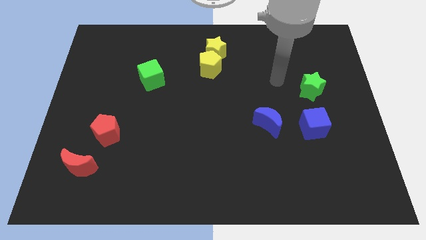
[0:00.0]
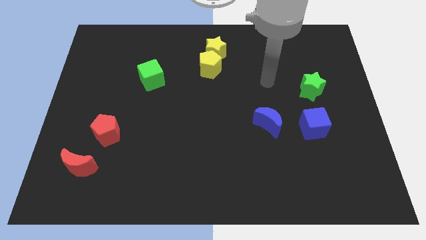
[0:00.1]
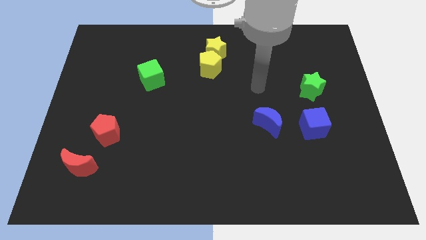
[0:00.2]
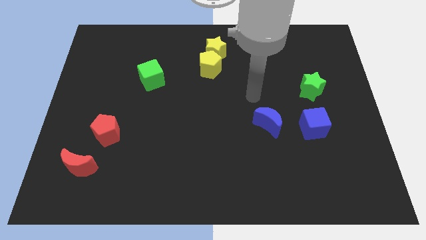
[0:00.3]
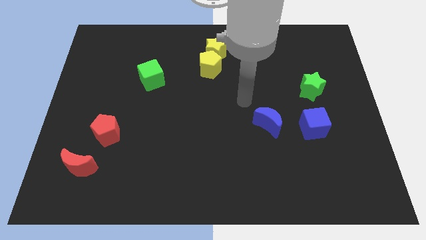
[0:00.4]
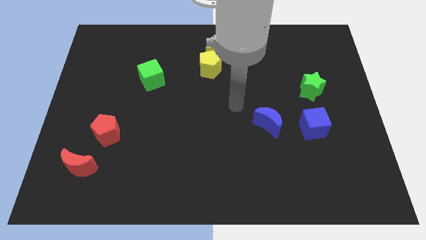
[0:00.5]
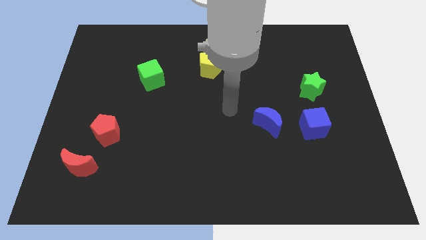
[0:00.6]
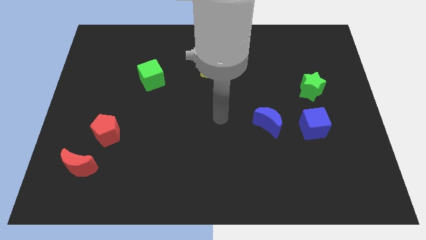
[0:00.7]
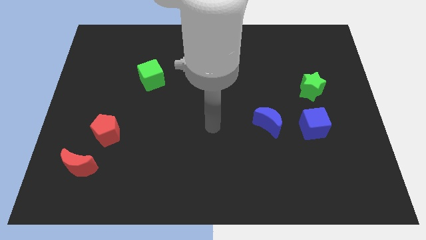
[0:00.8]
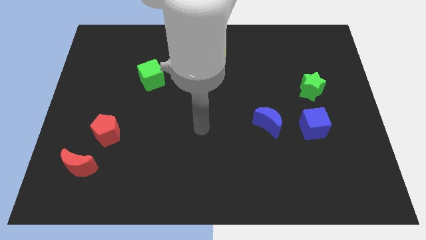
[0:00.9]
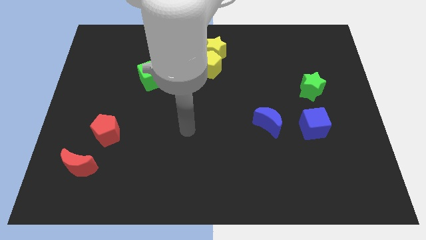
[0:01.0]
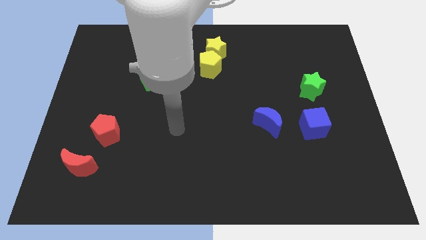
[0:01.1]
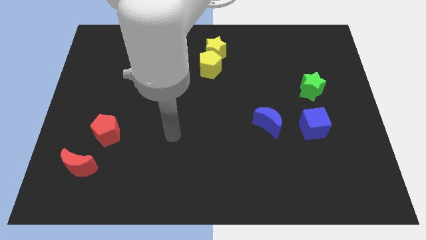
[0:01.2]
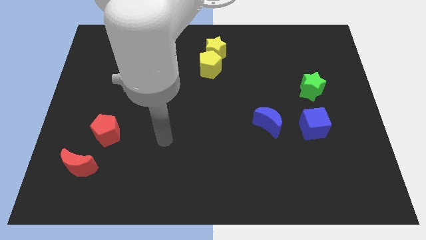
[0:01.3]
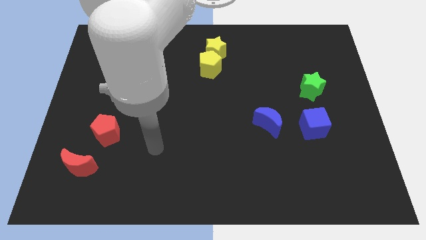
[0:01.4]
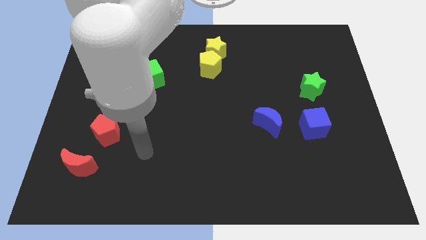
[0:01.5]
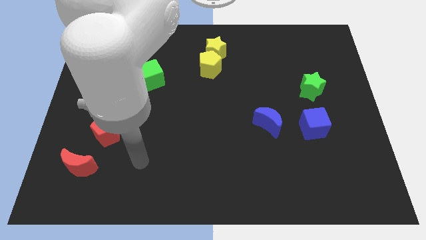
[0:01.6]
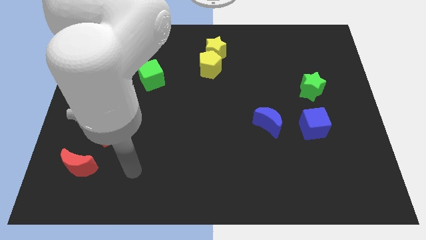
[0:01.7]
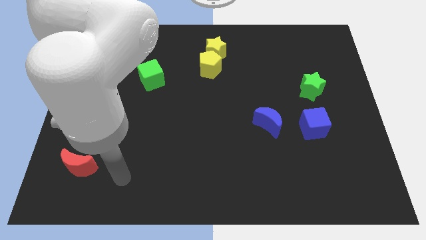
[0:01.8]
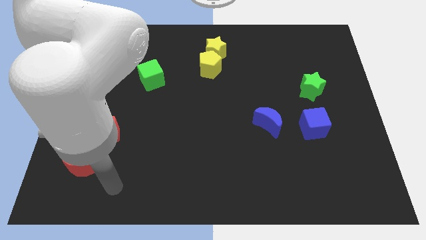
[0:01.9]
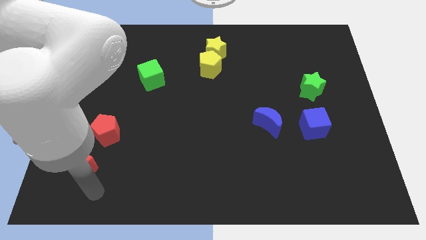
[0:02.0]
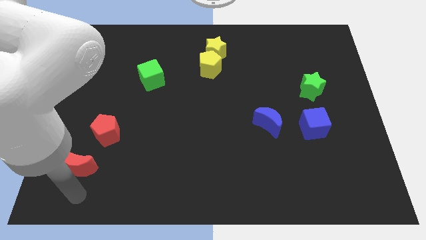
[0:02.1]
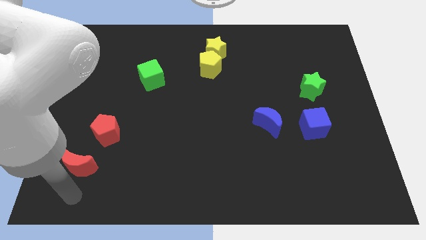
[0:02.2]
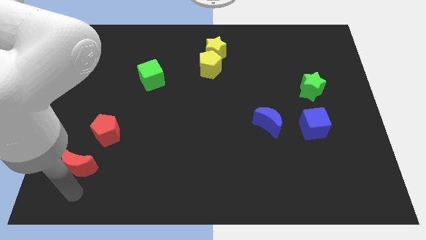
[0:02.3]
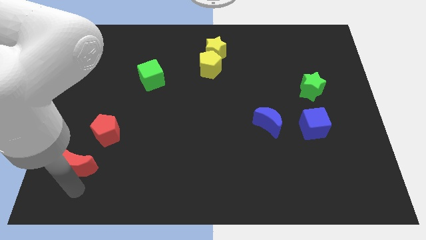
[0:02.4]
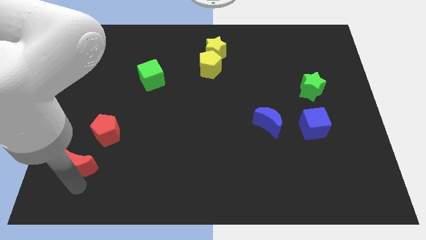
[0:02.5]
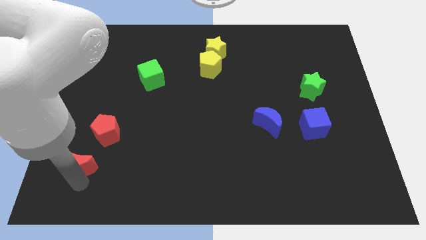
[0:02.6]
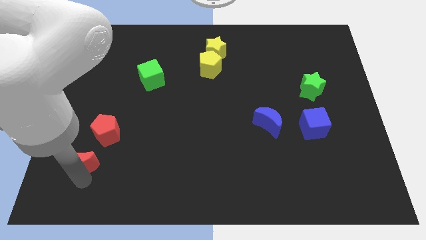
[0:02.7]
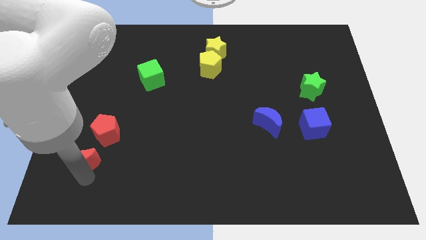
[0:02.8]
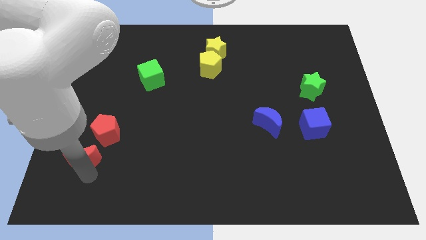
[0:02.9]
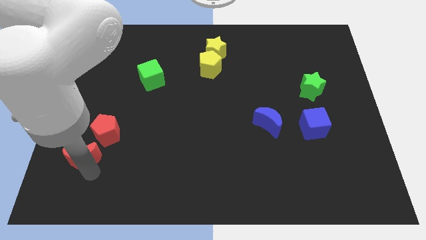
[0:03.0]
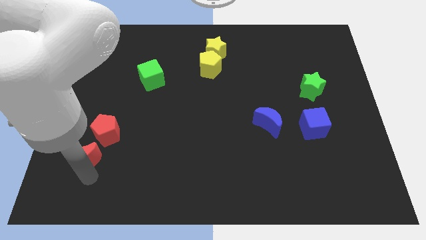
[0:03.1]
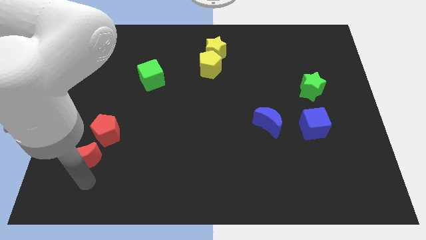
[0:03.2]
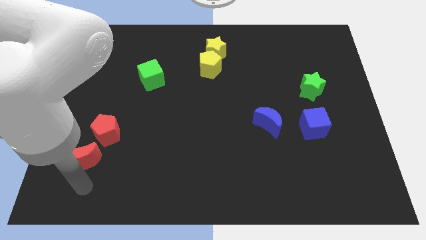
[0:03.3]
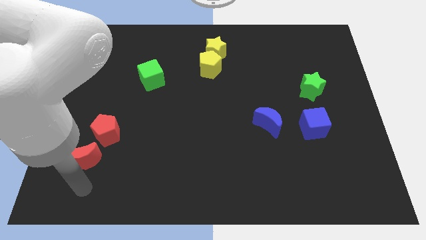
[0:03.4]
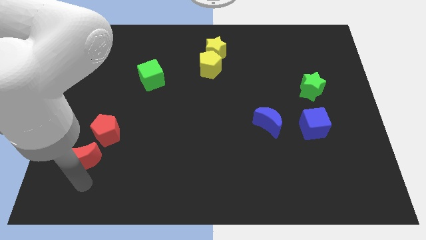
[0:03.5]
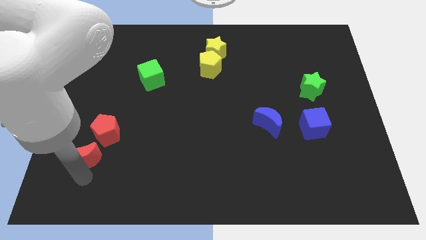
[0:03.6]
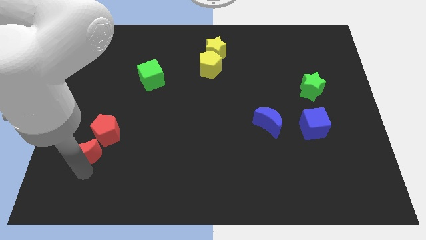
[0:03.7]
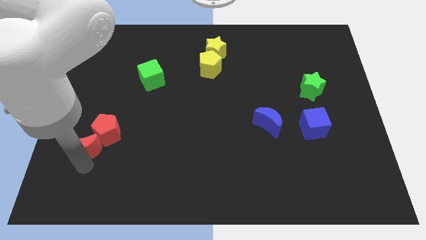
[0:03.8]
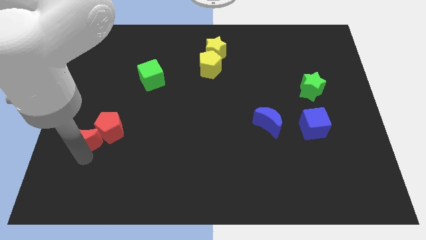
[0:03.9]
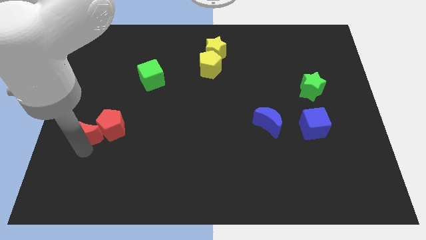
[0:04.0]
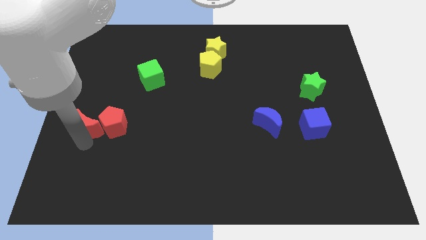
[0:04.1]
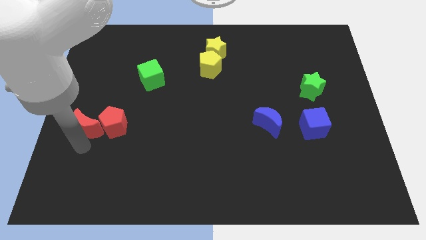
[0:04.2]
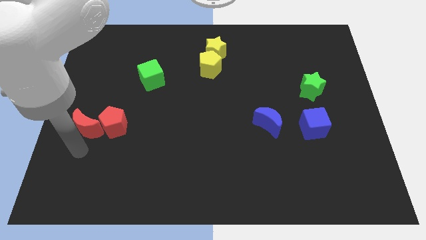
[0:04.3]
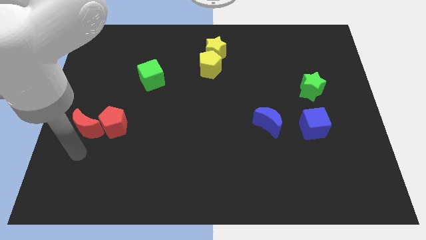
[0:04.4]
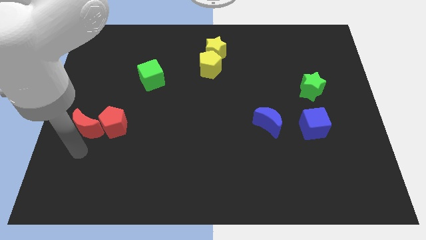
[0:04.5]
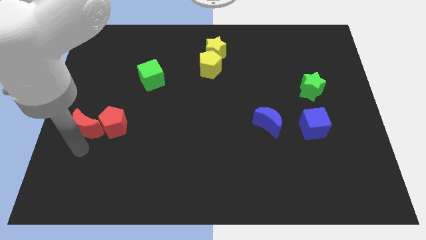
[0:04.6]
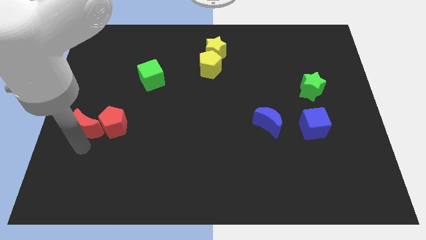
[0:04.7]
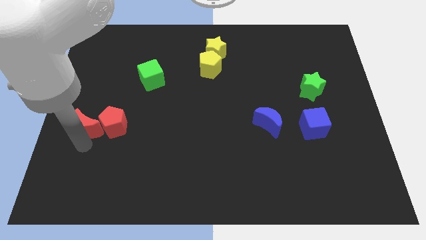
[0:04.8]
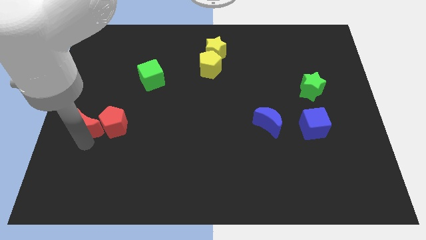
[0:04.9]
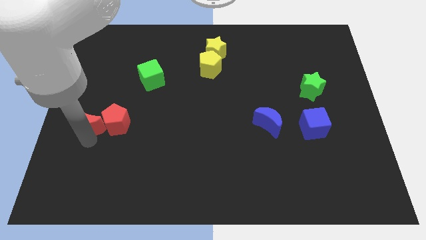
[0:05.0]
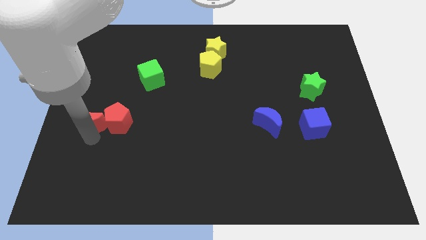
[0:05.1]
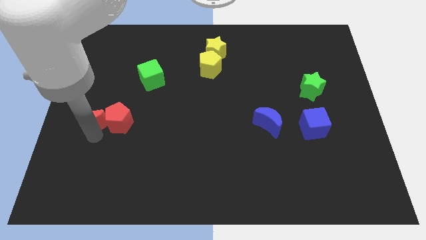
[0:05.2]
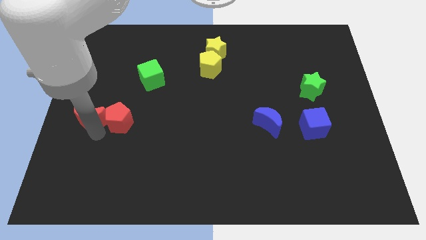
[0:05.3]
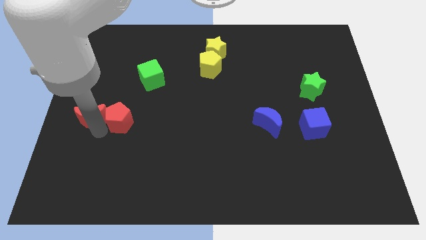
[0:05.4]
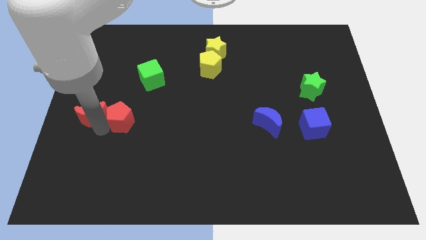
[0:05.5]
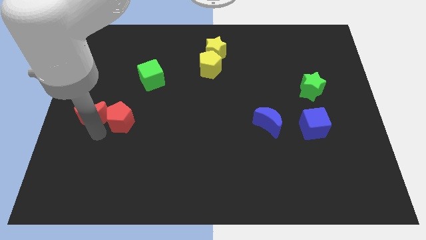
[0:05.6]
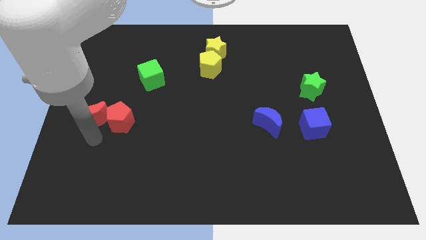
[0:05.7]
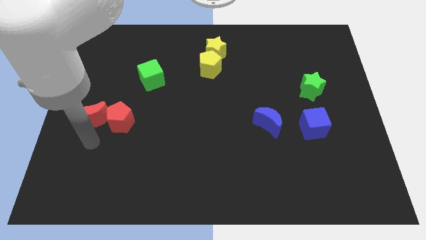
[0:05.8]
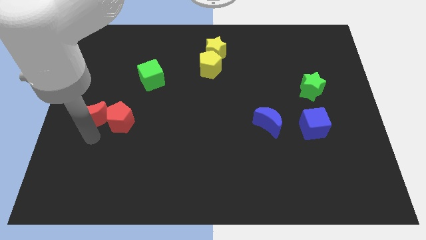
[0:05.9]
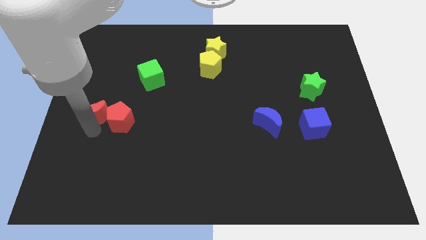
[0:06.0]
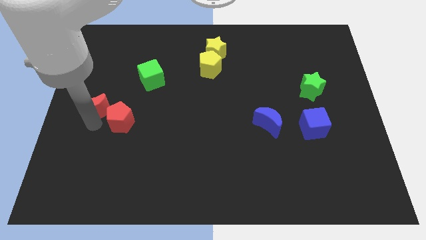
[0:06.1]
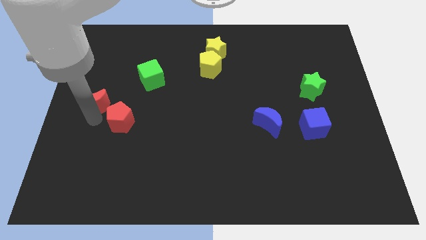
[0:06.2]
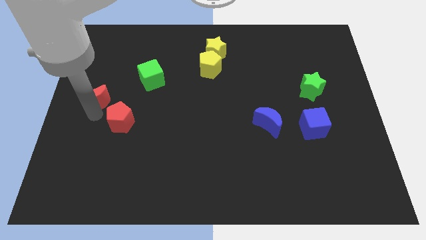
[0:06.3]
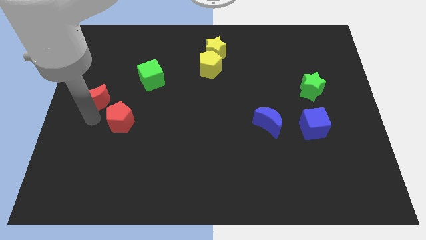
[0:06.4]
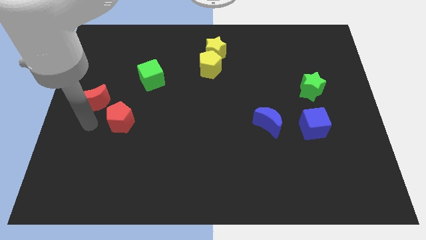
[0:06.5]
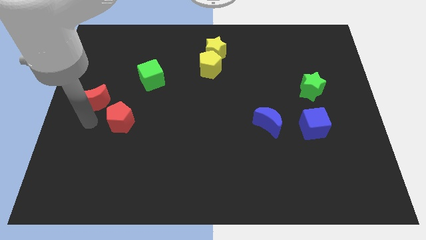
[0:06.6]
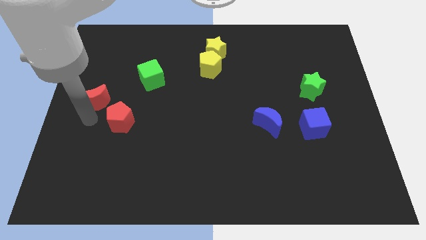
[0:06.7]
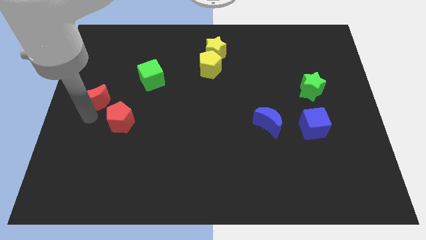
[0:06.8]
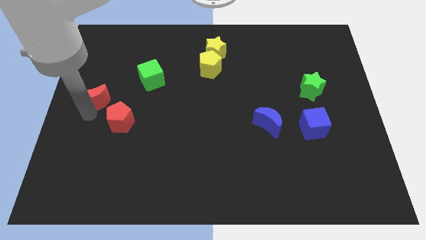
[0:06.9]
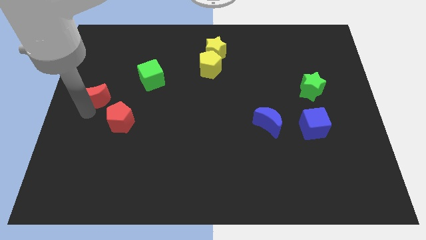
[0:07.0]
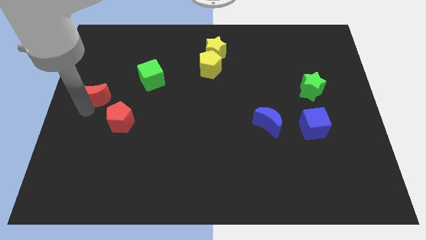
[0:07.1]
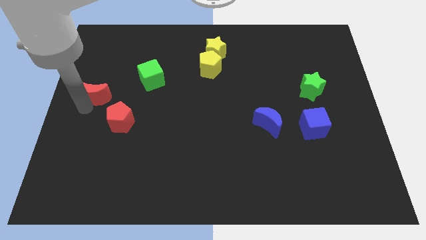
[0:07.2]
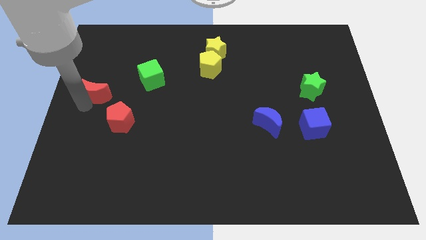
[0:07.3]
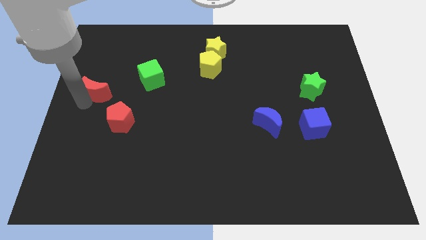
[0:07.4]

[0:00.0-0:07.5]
move the red moon up

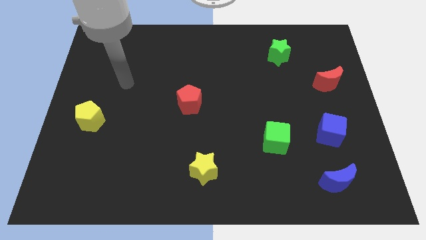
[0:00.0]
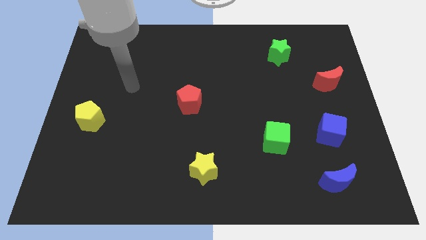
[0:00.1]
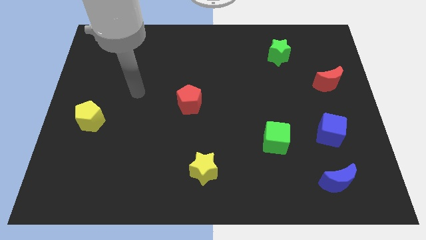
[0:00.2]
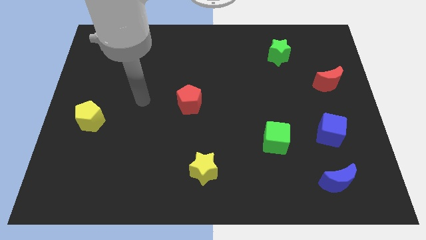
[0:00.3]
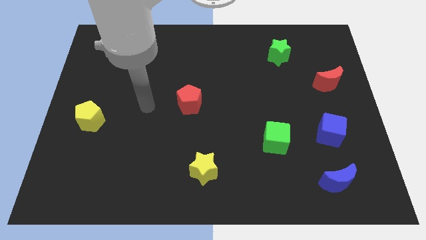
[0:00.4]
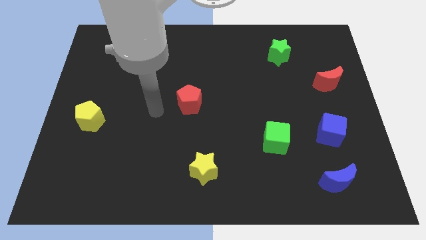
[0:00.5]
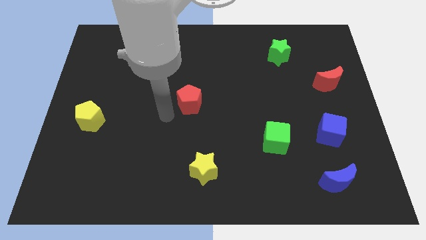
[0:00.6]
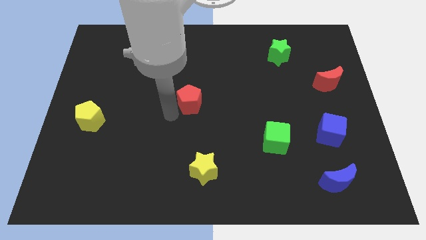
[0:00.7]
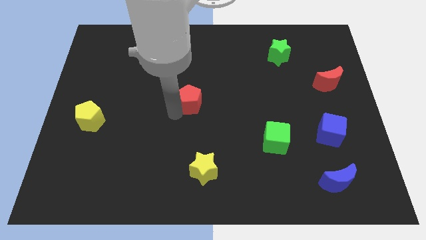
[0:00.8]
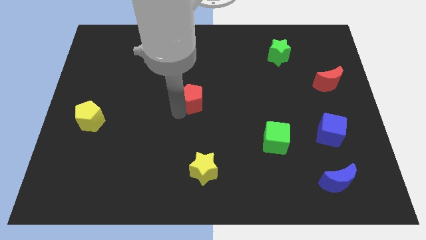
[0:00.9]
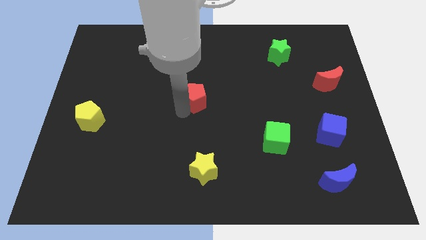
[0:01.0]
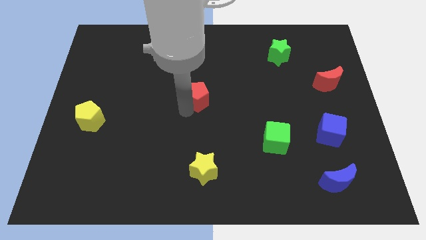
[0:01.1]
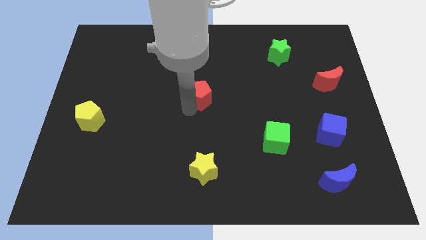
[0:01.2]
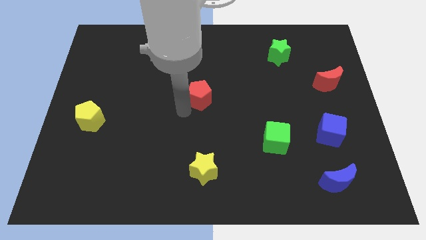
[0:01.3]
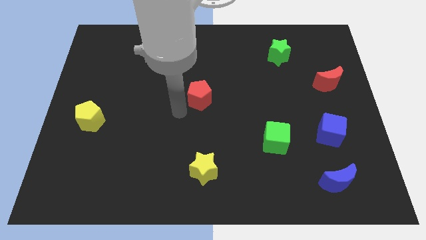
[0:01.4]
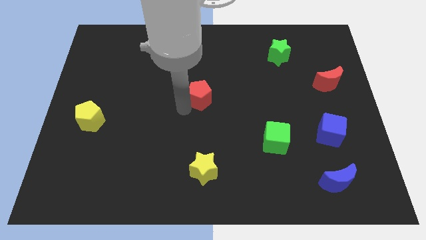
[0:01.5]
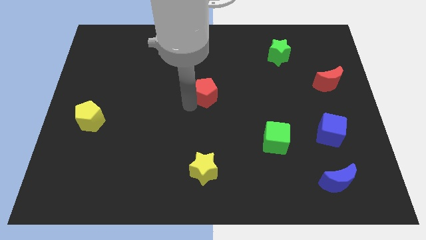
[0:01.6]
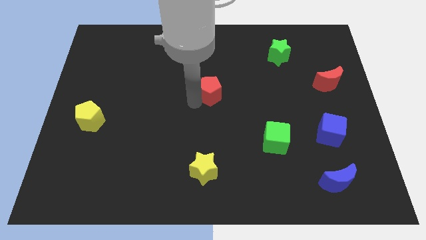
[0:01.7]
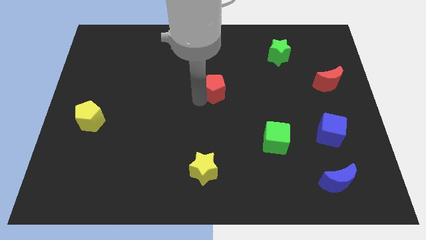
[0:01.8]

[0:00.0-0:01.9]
slightly push the red pentagon up and to the right
